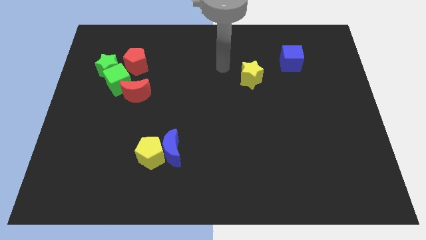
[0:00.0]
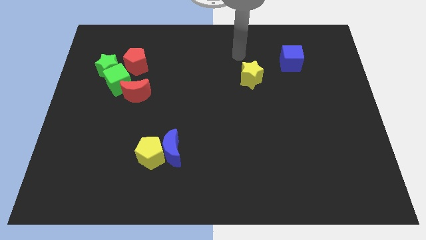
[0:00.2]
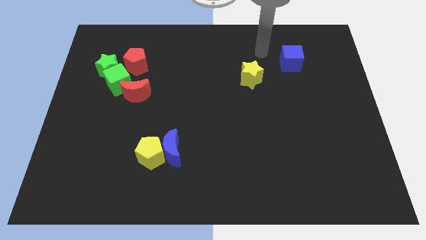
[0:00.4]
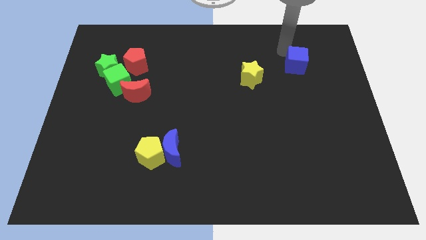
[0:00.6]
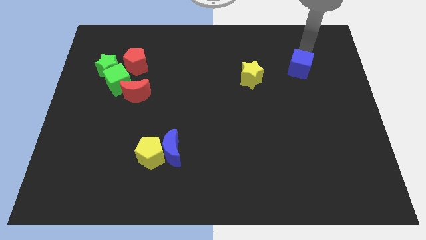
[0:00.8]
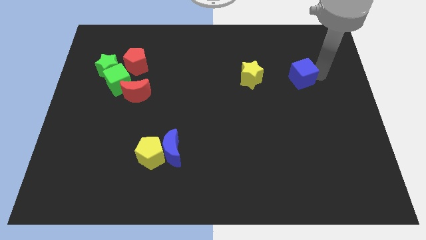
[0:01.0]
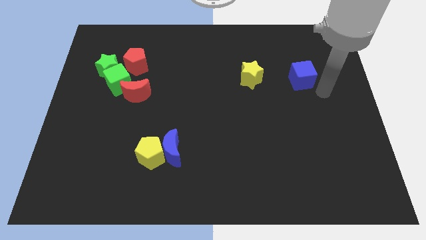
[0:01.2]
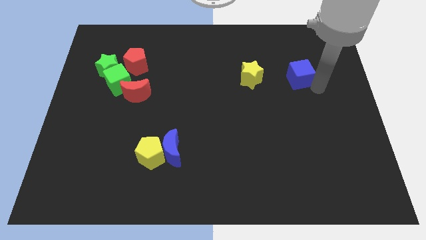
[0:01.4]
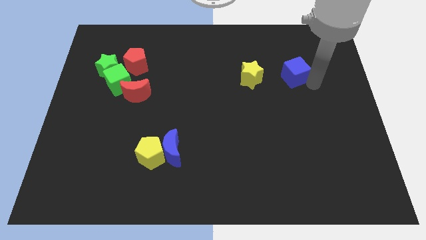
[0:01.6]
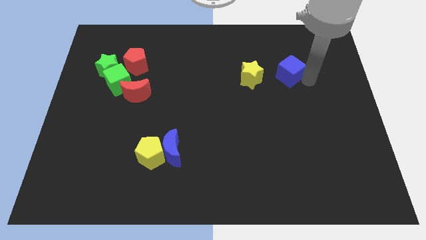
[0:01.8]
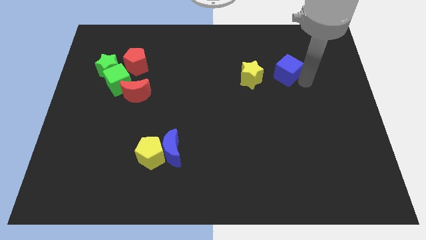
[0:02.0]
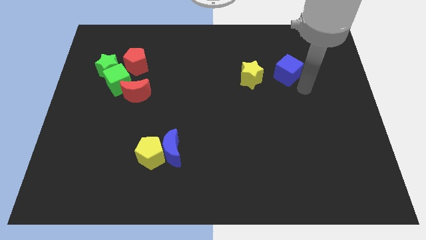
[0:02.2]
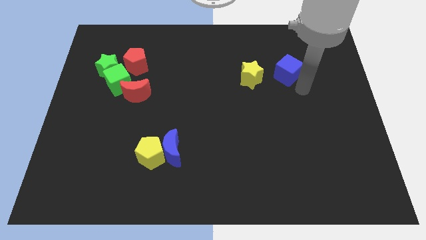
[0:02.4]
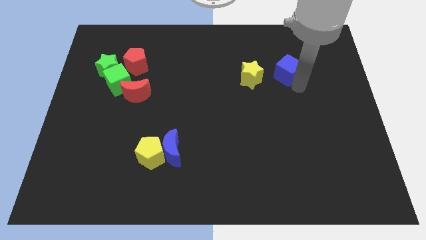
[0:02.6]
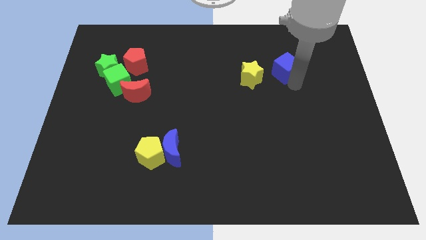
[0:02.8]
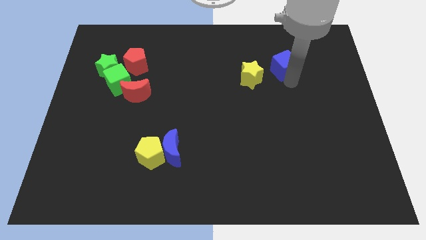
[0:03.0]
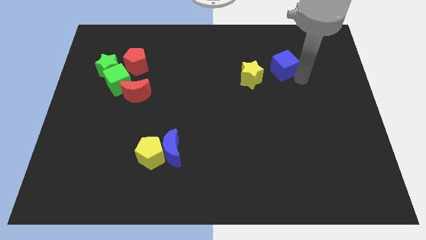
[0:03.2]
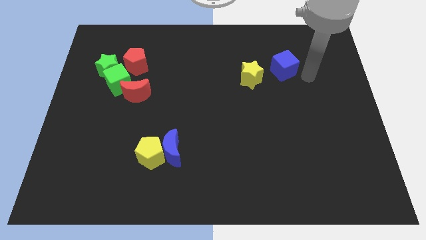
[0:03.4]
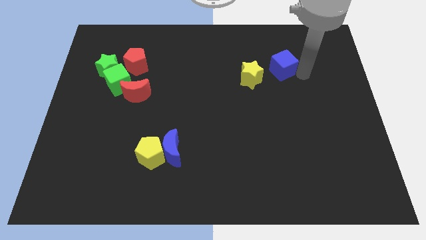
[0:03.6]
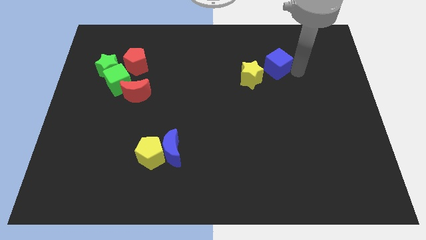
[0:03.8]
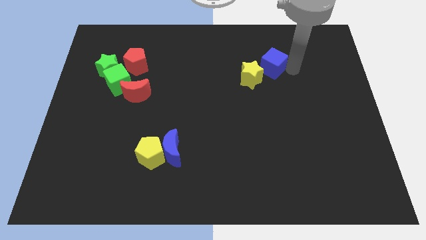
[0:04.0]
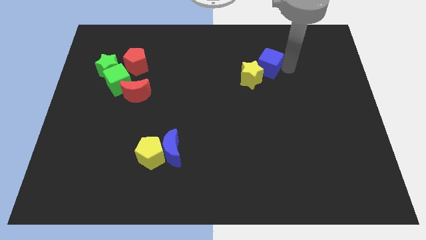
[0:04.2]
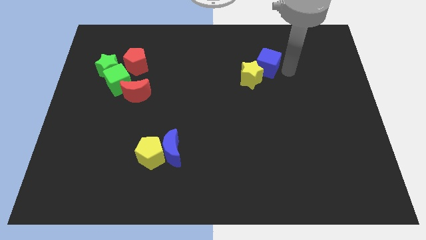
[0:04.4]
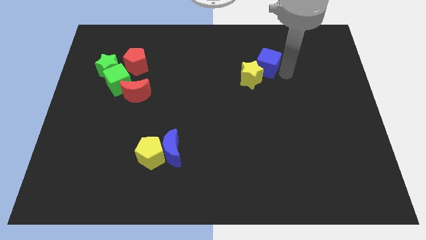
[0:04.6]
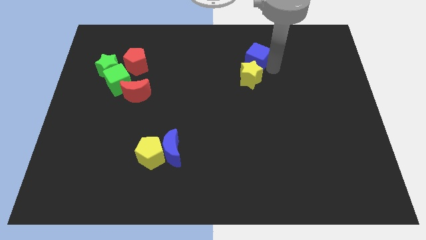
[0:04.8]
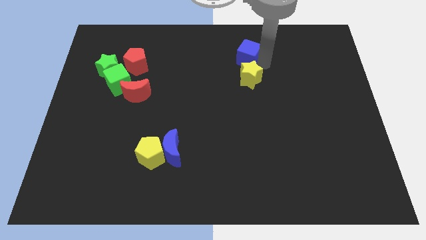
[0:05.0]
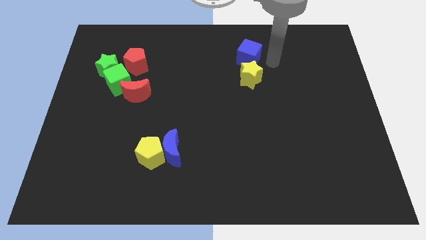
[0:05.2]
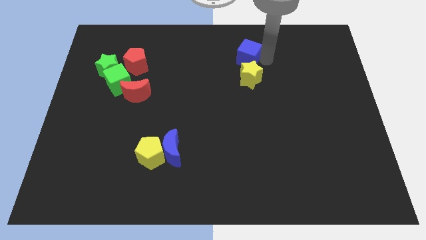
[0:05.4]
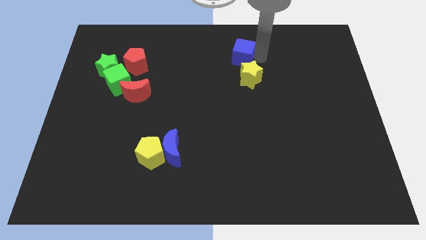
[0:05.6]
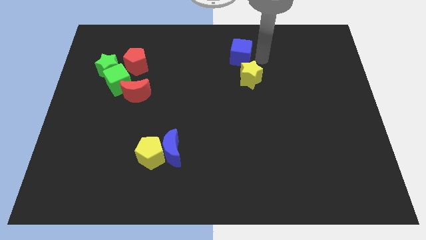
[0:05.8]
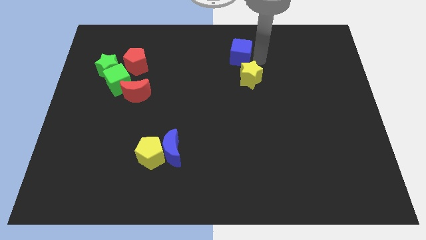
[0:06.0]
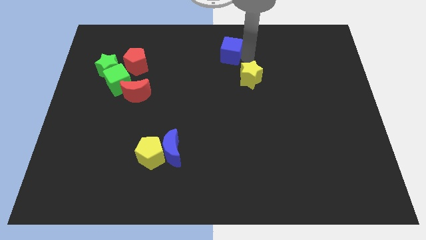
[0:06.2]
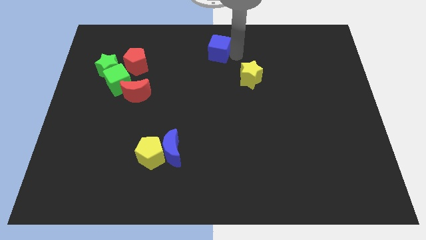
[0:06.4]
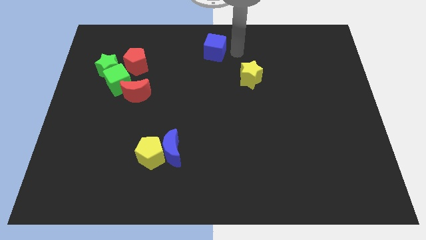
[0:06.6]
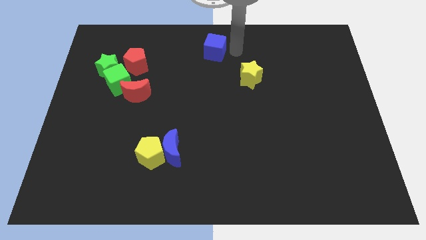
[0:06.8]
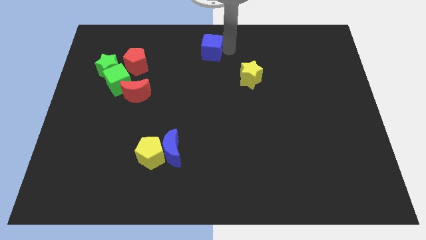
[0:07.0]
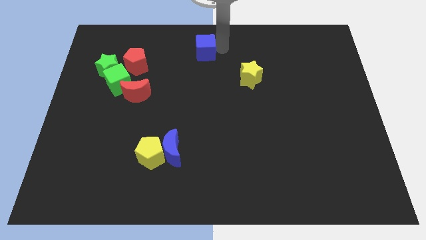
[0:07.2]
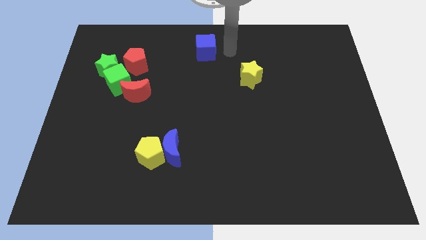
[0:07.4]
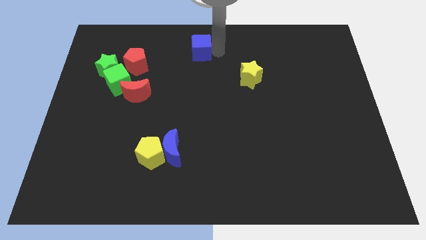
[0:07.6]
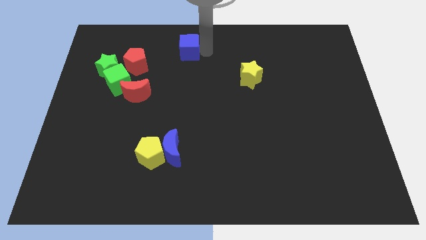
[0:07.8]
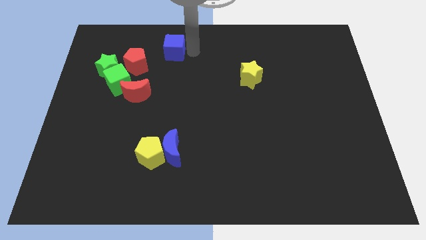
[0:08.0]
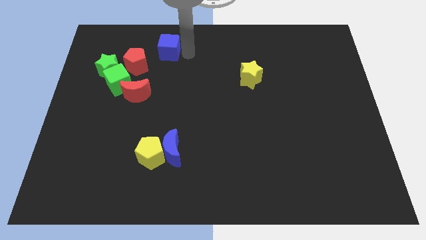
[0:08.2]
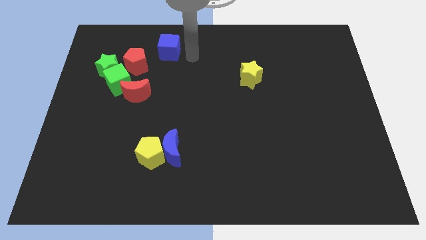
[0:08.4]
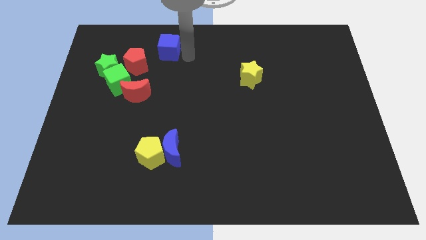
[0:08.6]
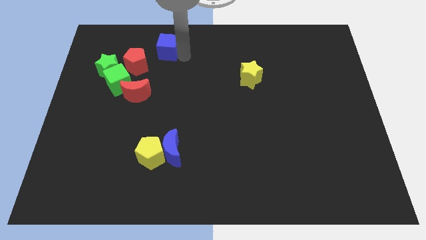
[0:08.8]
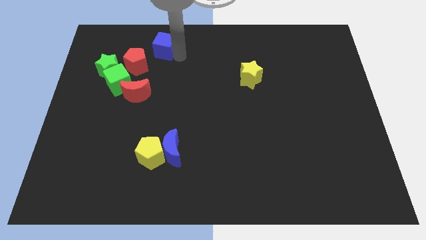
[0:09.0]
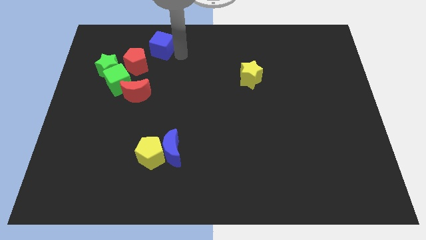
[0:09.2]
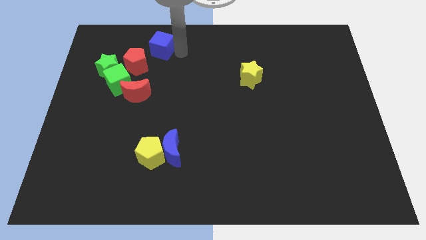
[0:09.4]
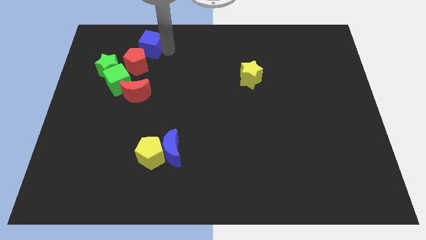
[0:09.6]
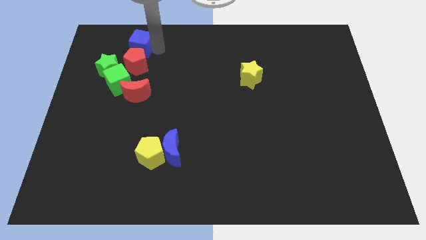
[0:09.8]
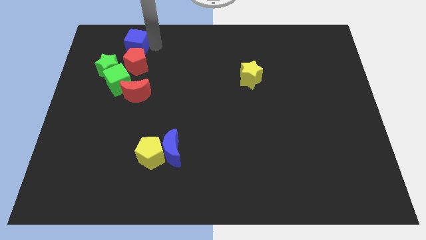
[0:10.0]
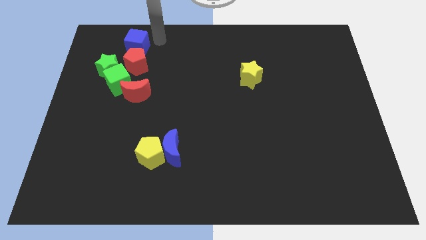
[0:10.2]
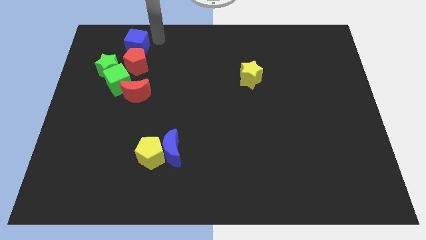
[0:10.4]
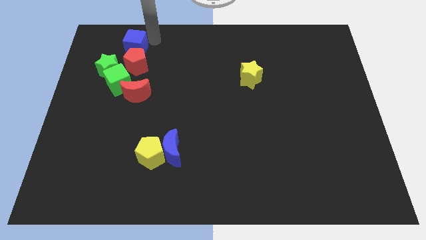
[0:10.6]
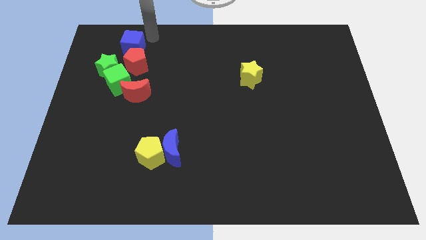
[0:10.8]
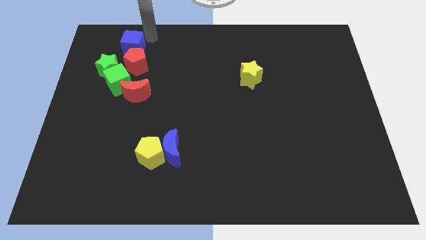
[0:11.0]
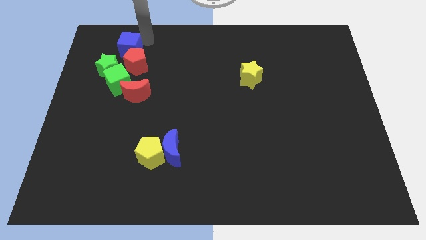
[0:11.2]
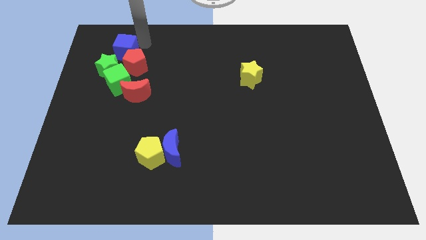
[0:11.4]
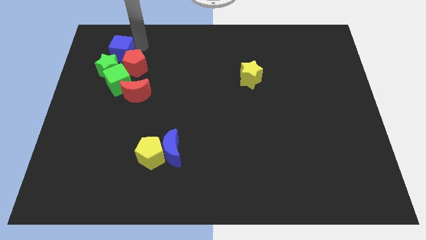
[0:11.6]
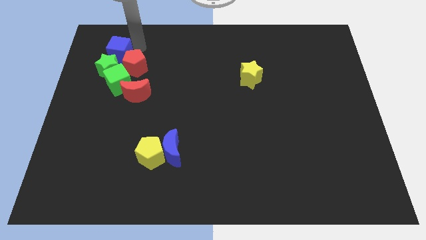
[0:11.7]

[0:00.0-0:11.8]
push the blue cube to the green star

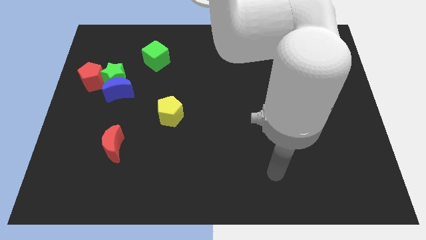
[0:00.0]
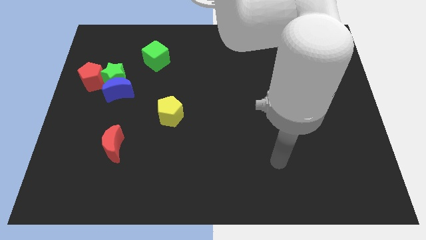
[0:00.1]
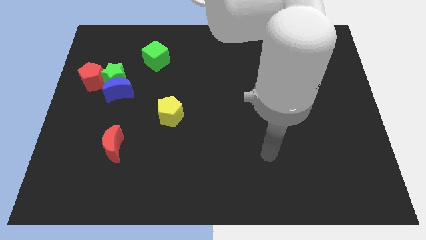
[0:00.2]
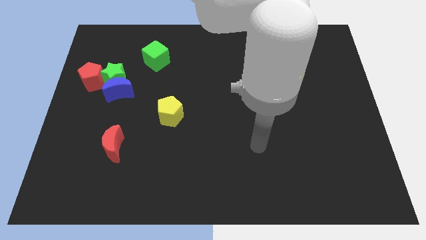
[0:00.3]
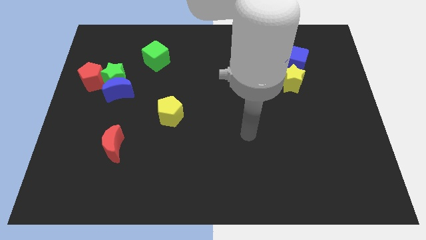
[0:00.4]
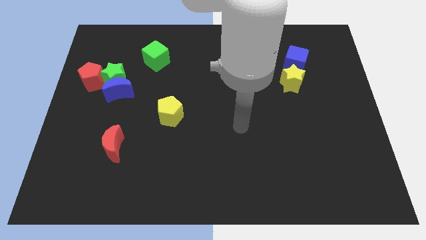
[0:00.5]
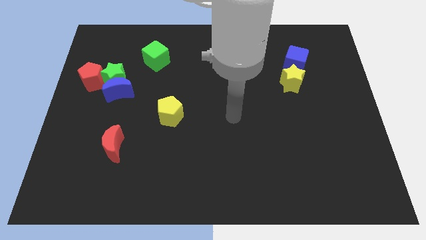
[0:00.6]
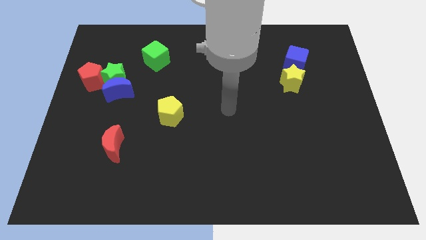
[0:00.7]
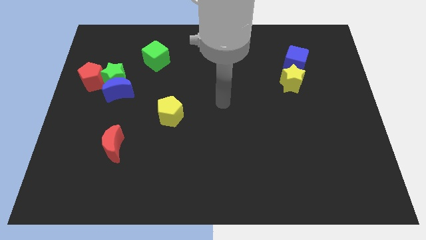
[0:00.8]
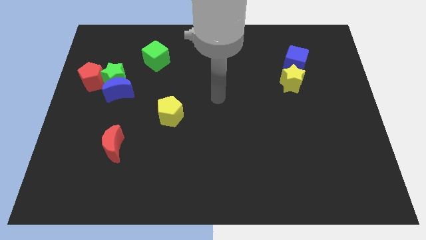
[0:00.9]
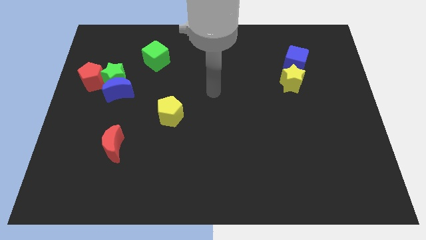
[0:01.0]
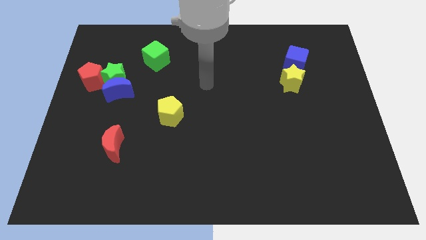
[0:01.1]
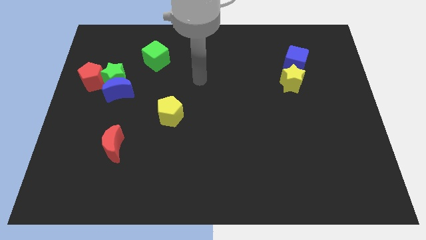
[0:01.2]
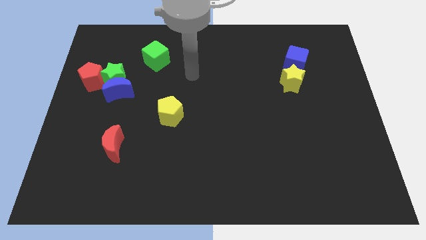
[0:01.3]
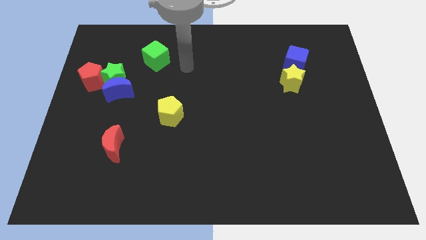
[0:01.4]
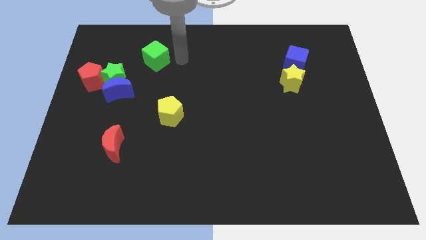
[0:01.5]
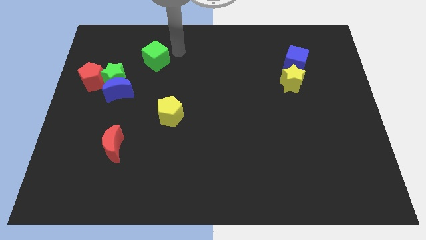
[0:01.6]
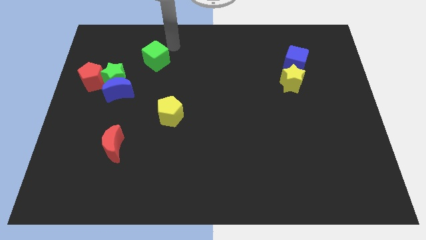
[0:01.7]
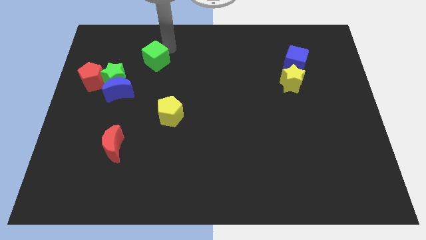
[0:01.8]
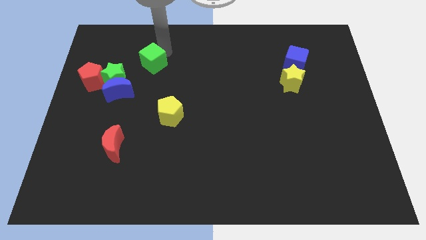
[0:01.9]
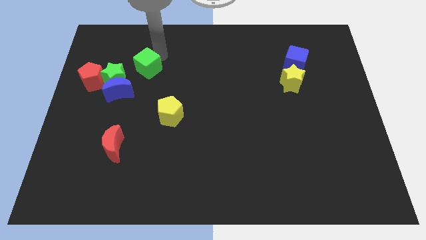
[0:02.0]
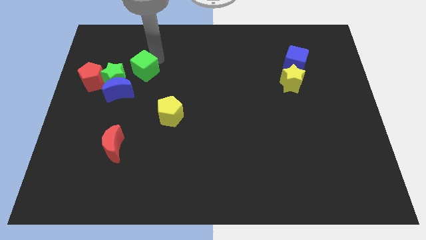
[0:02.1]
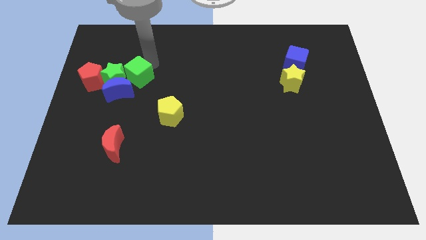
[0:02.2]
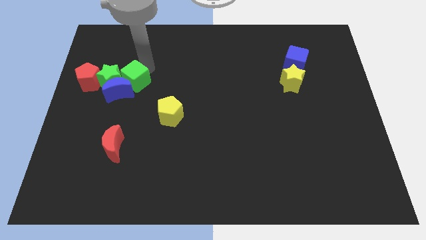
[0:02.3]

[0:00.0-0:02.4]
push the green cube close to the blue moon
